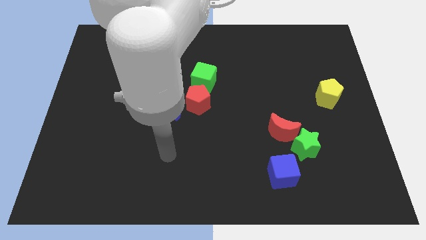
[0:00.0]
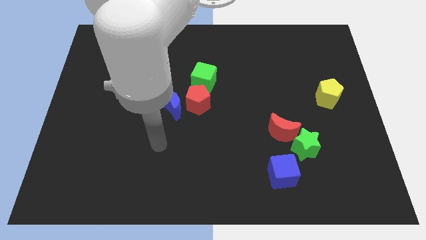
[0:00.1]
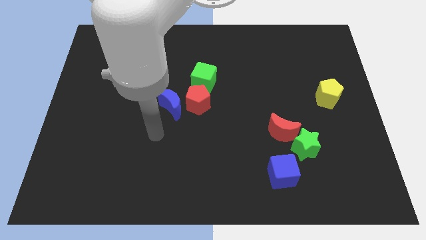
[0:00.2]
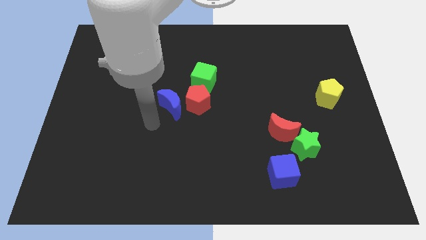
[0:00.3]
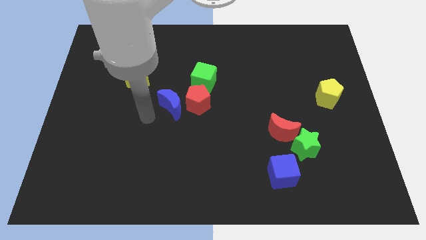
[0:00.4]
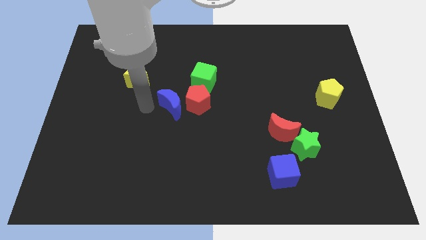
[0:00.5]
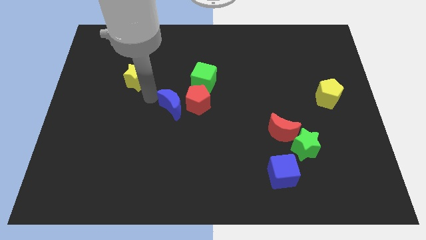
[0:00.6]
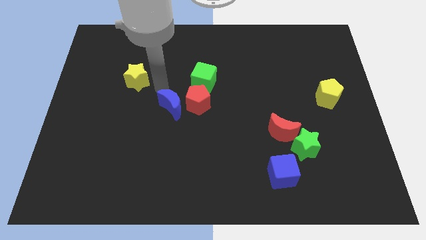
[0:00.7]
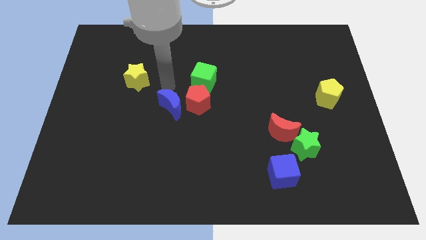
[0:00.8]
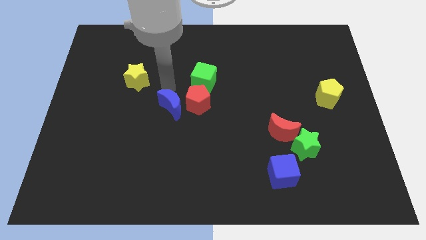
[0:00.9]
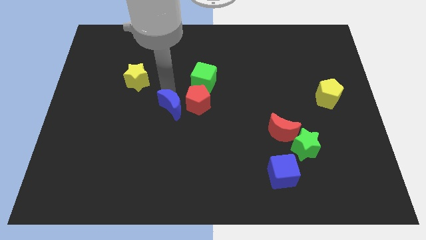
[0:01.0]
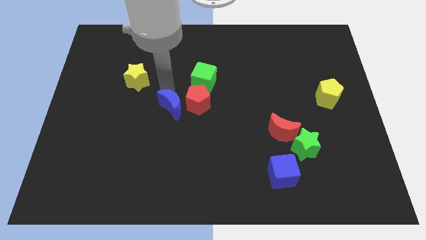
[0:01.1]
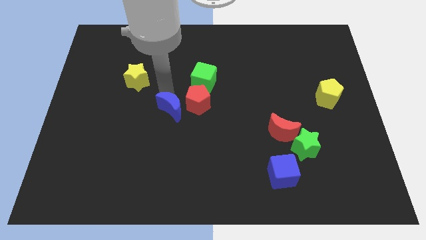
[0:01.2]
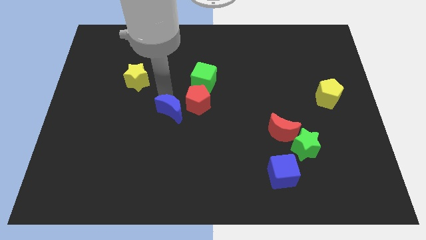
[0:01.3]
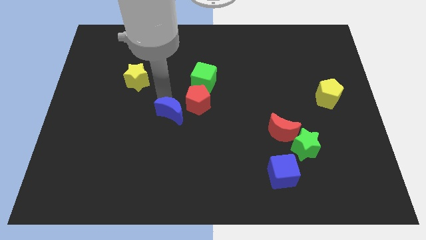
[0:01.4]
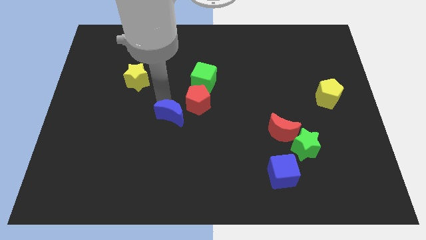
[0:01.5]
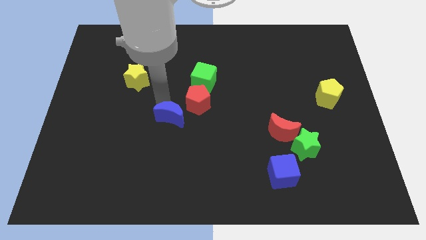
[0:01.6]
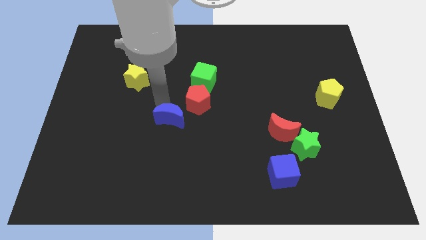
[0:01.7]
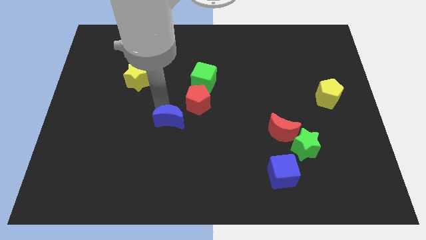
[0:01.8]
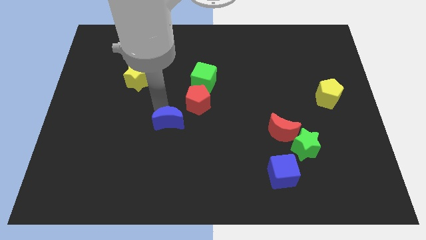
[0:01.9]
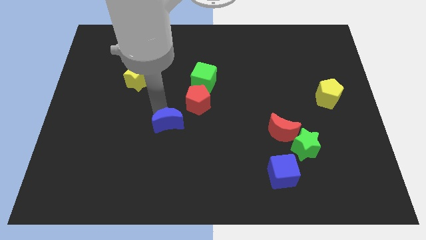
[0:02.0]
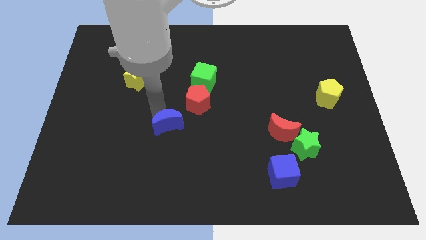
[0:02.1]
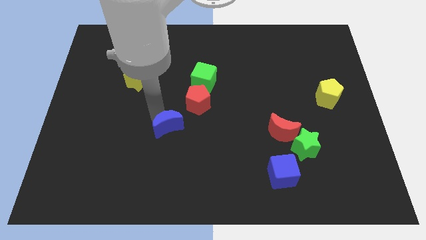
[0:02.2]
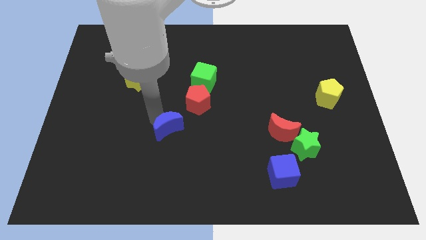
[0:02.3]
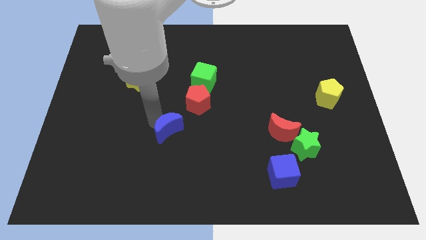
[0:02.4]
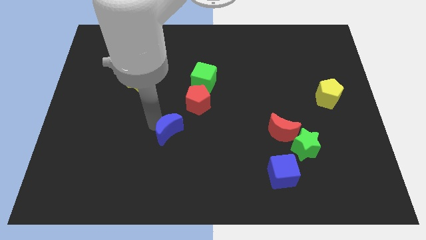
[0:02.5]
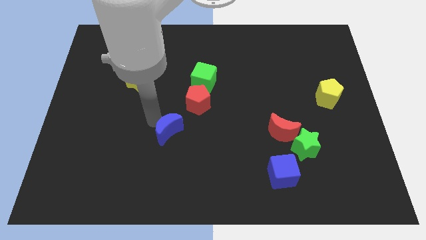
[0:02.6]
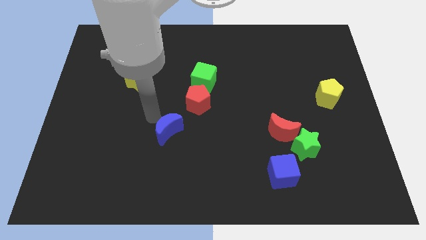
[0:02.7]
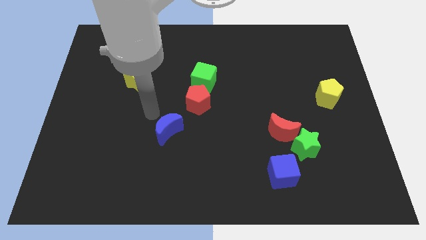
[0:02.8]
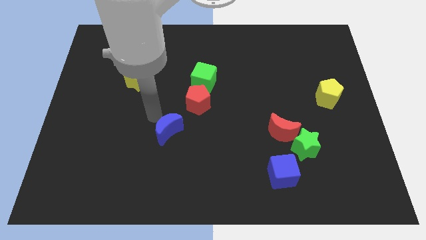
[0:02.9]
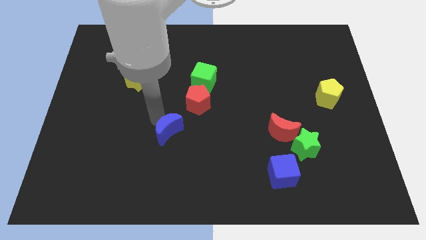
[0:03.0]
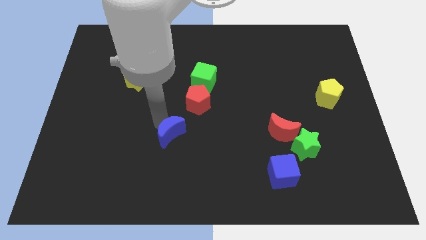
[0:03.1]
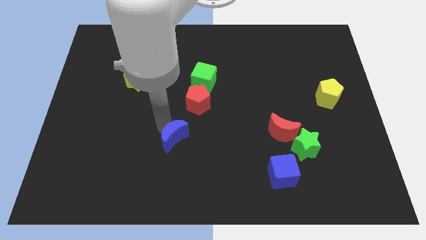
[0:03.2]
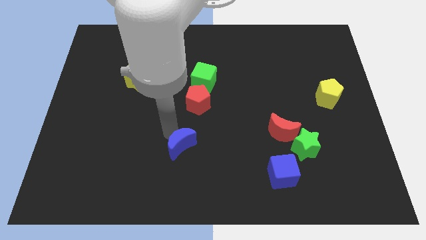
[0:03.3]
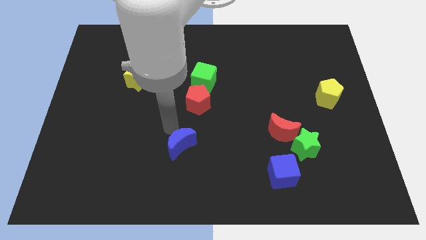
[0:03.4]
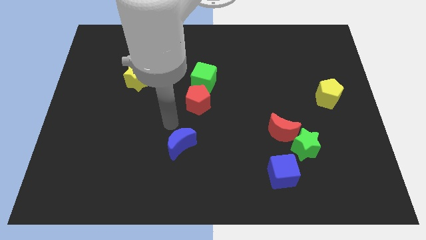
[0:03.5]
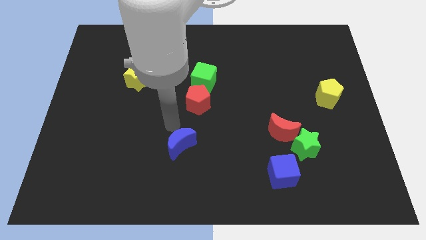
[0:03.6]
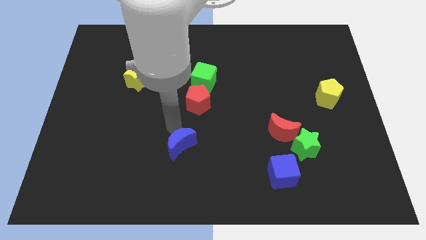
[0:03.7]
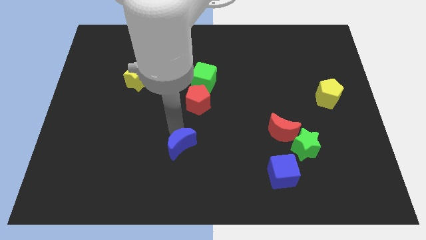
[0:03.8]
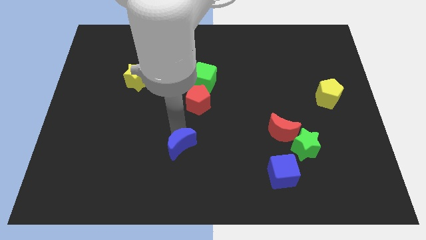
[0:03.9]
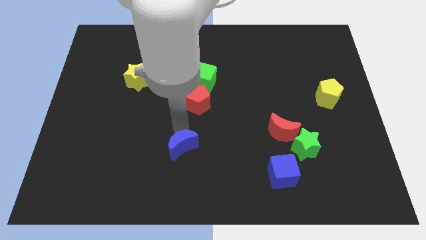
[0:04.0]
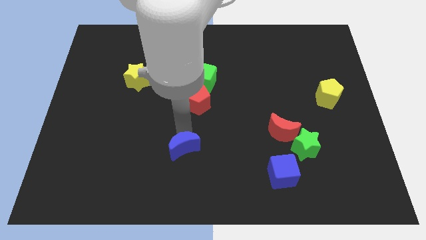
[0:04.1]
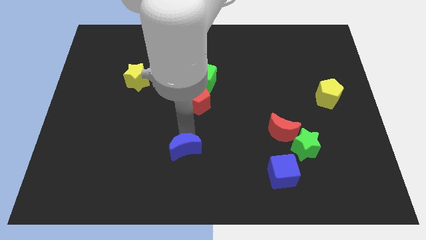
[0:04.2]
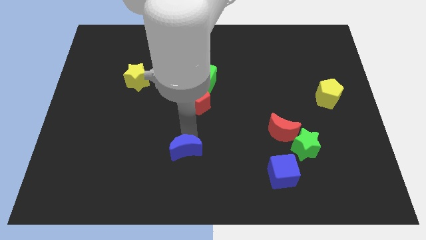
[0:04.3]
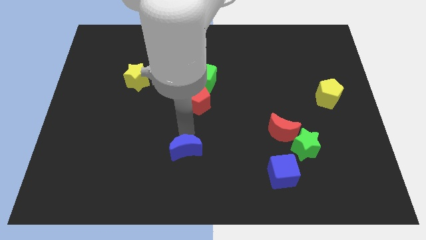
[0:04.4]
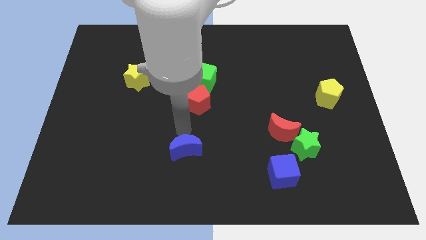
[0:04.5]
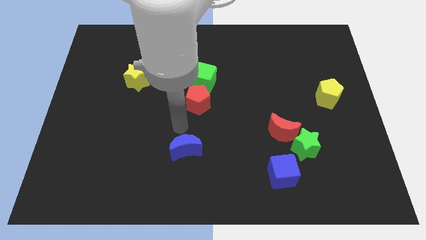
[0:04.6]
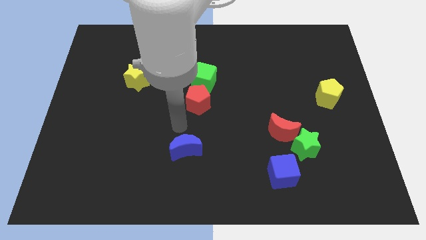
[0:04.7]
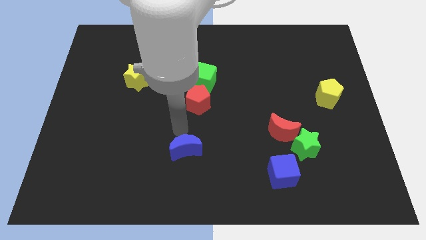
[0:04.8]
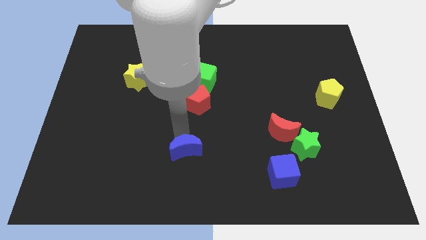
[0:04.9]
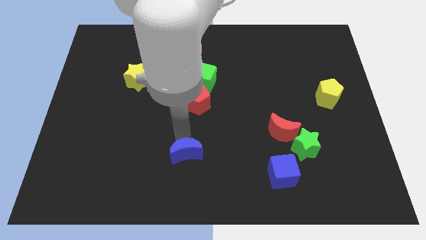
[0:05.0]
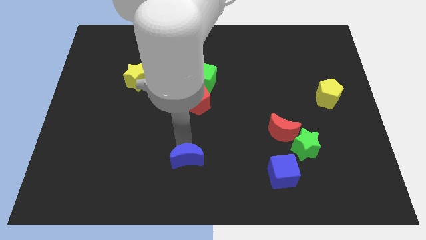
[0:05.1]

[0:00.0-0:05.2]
slide the blue moon to the bottom side

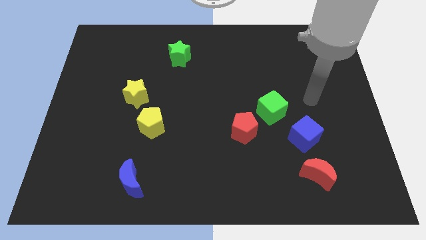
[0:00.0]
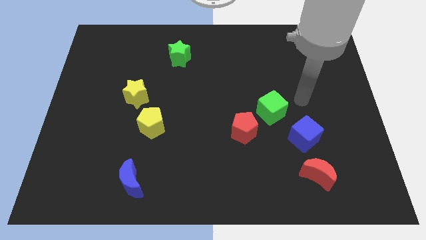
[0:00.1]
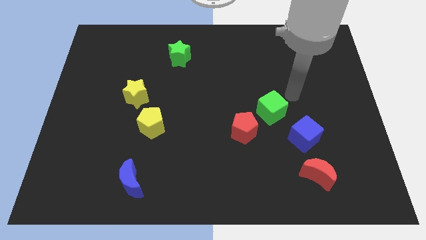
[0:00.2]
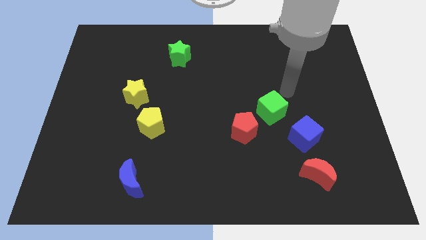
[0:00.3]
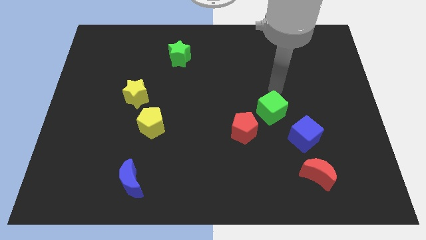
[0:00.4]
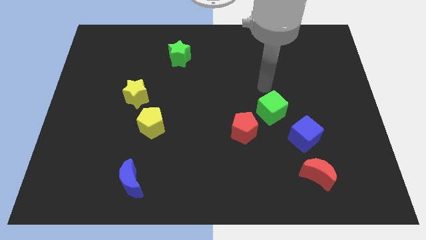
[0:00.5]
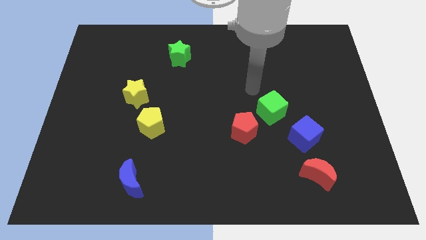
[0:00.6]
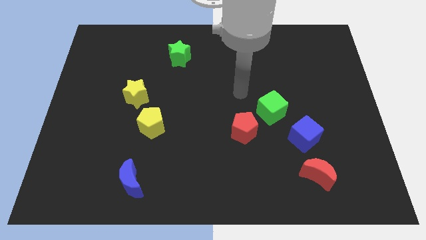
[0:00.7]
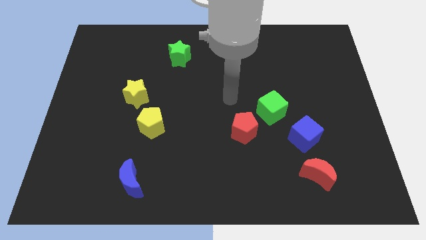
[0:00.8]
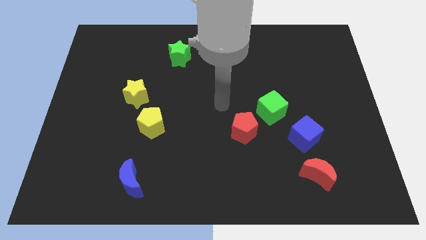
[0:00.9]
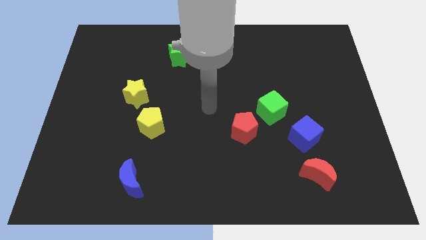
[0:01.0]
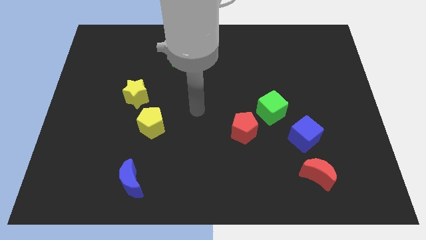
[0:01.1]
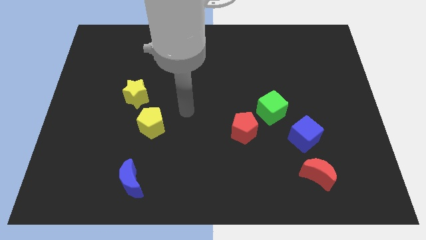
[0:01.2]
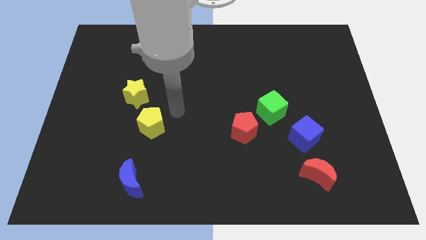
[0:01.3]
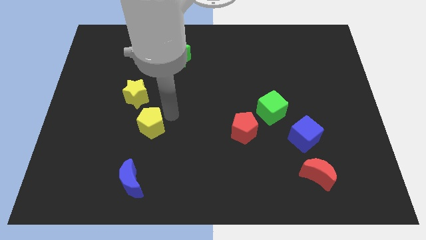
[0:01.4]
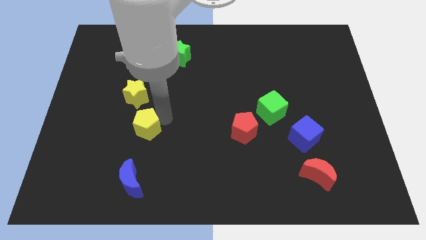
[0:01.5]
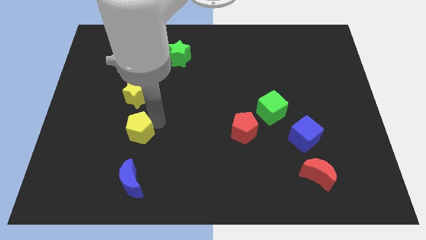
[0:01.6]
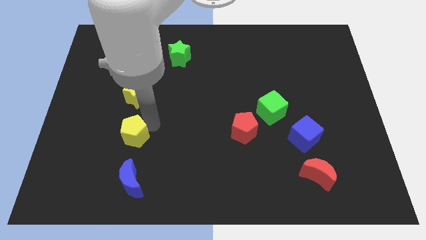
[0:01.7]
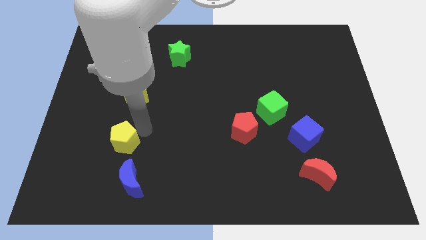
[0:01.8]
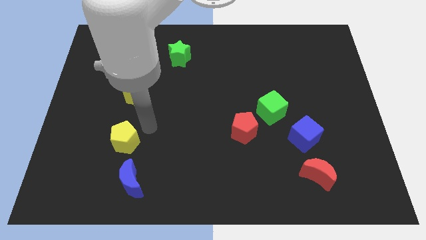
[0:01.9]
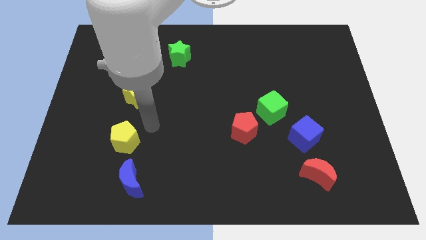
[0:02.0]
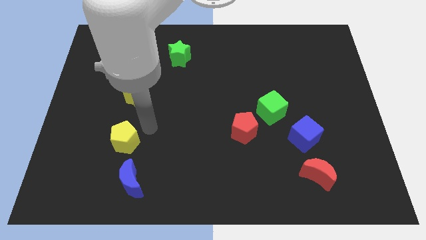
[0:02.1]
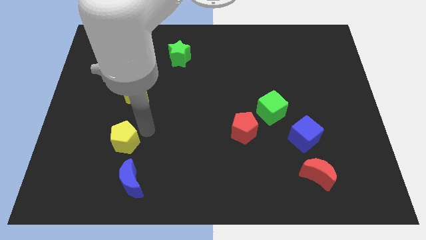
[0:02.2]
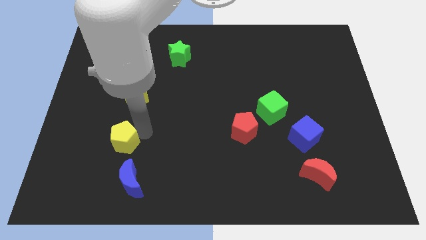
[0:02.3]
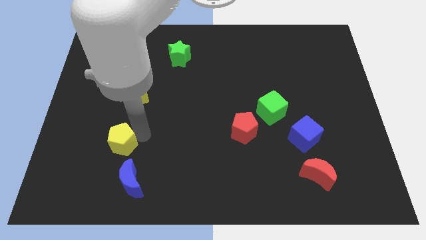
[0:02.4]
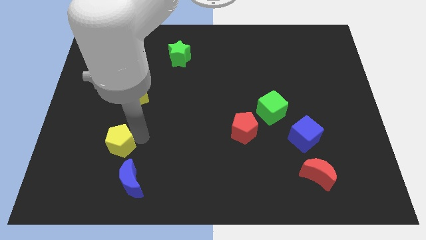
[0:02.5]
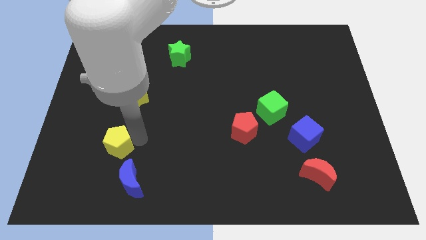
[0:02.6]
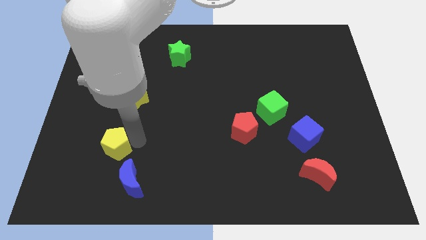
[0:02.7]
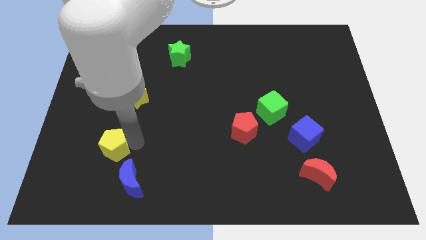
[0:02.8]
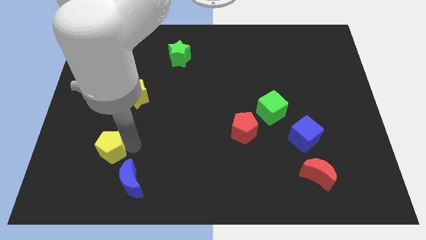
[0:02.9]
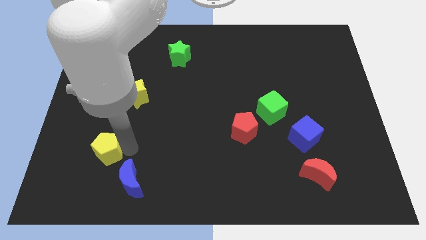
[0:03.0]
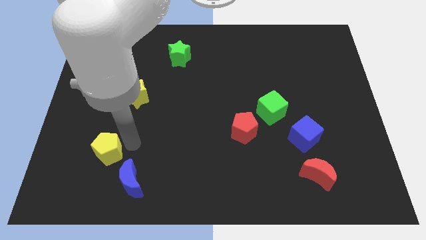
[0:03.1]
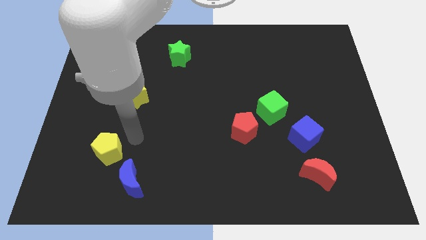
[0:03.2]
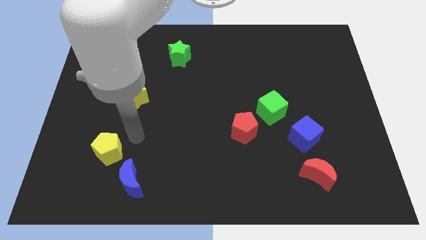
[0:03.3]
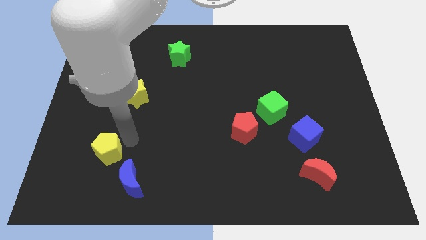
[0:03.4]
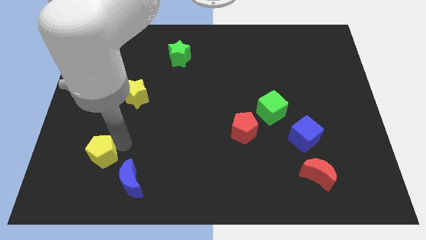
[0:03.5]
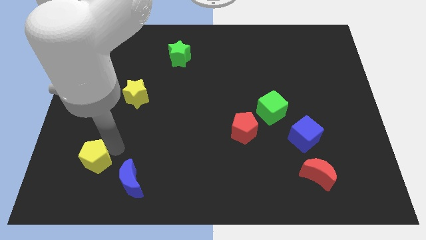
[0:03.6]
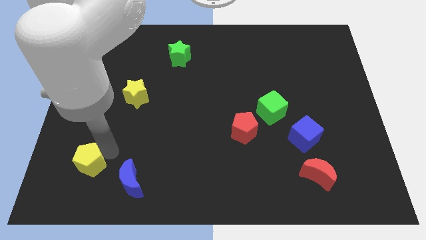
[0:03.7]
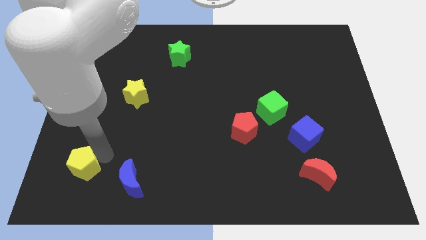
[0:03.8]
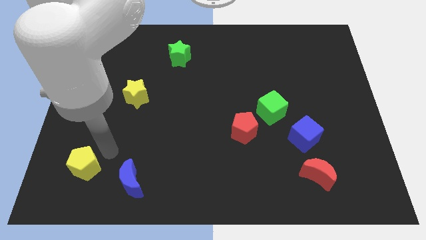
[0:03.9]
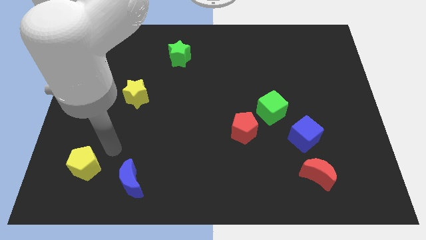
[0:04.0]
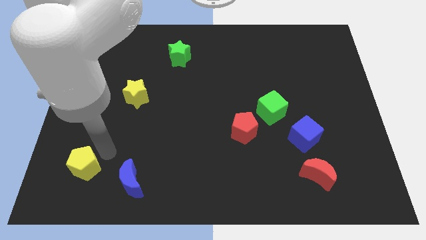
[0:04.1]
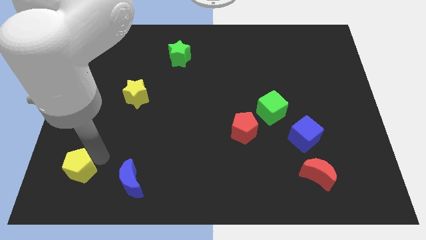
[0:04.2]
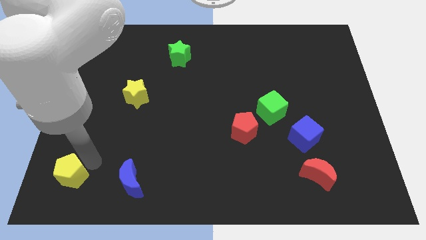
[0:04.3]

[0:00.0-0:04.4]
push the yellow pentagon to the bottom left of the board
